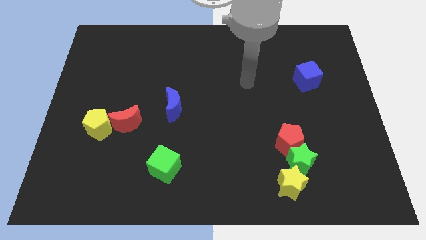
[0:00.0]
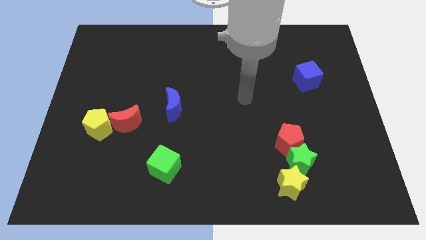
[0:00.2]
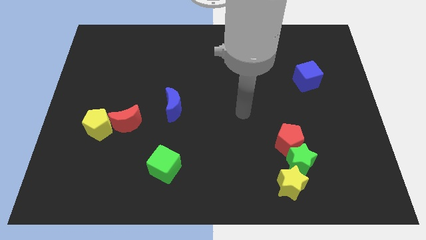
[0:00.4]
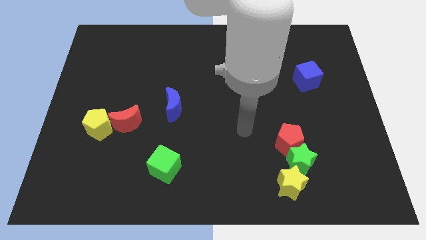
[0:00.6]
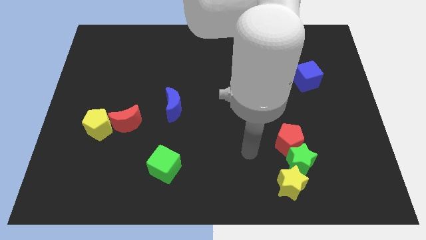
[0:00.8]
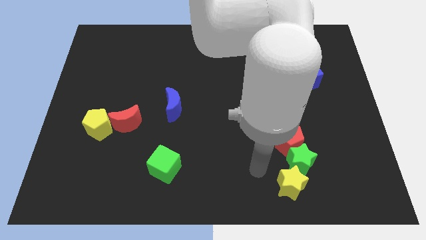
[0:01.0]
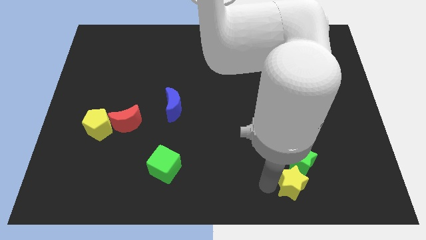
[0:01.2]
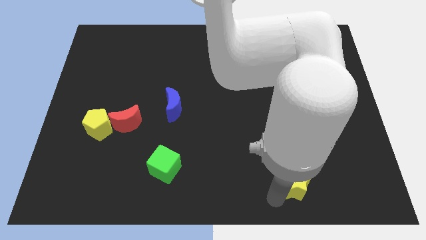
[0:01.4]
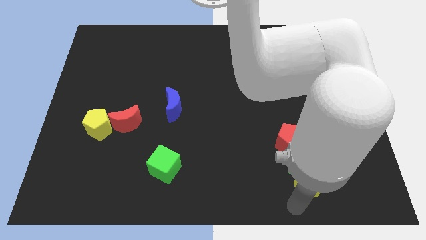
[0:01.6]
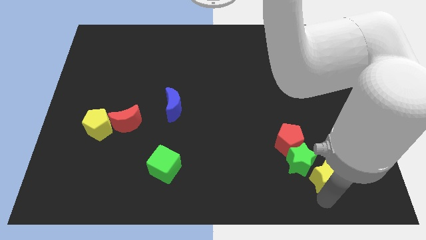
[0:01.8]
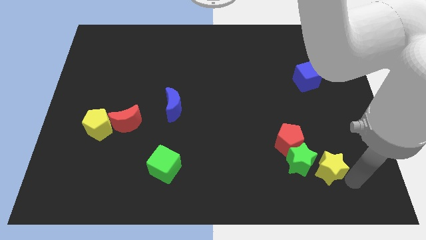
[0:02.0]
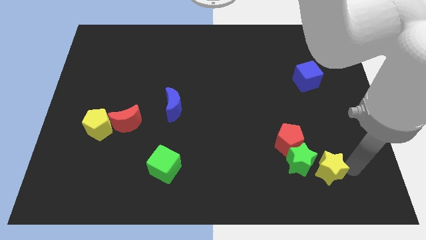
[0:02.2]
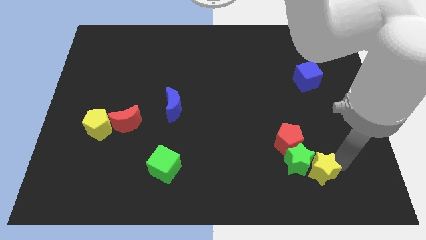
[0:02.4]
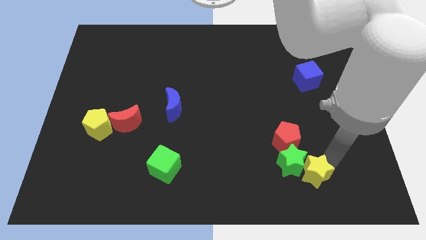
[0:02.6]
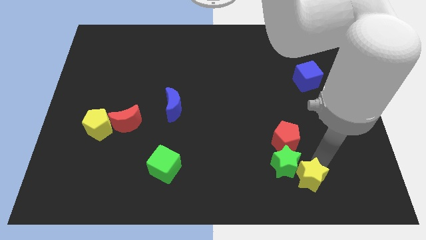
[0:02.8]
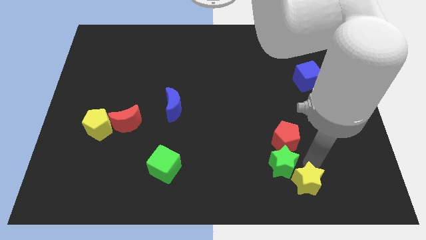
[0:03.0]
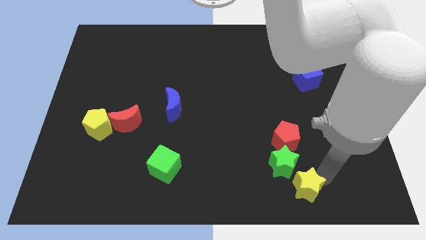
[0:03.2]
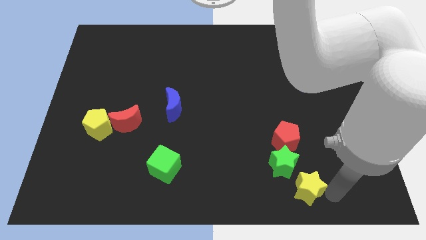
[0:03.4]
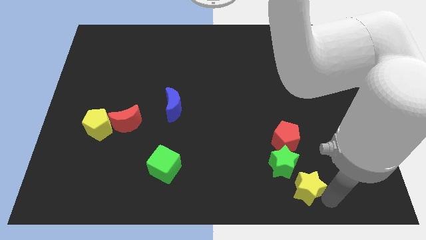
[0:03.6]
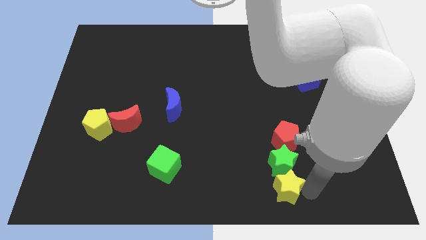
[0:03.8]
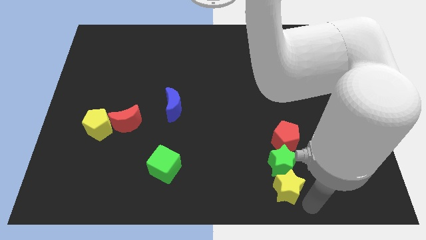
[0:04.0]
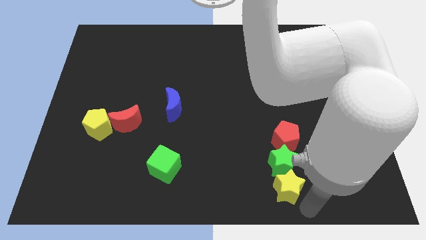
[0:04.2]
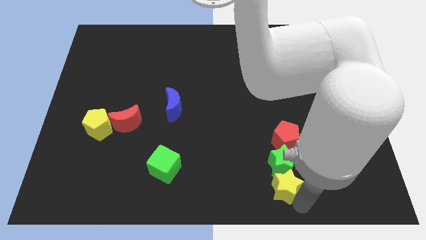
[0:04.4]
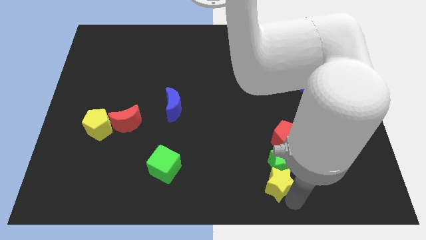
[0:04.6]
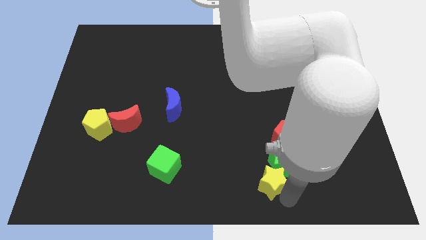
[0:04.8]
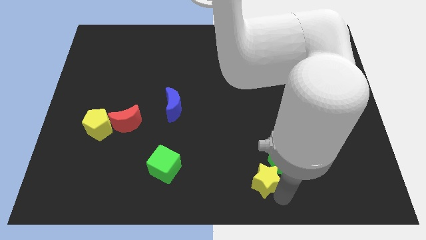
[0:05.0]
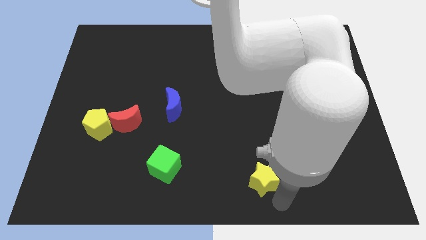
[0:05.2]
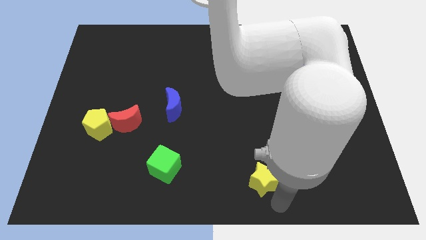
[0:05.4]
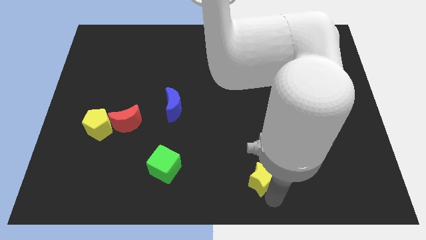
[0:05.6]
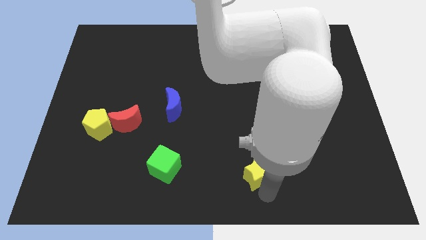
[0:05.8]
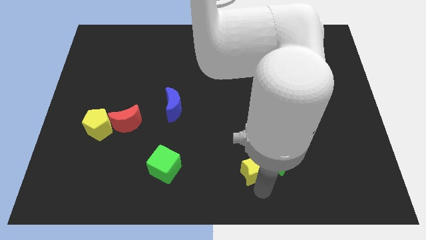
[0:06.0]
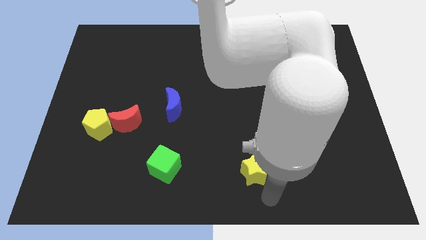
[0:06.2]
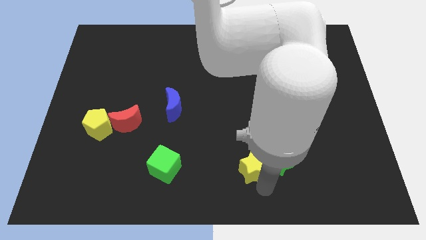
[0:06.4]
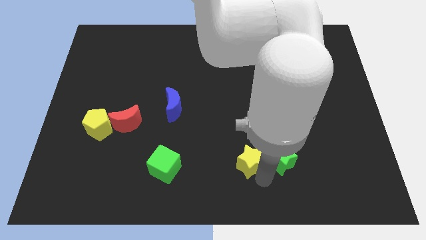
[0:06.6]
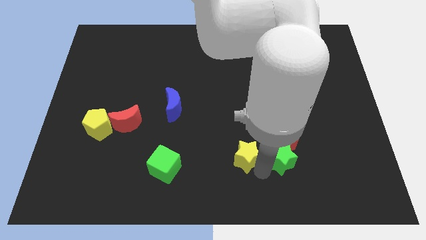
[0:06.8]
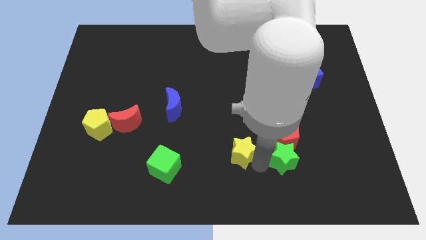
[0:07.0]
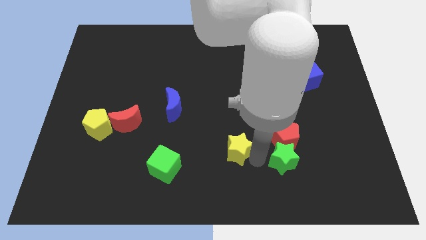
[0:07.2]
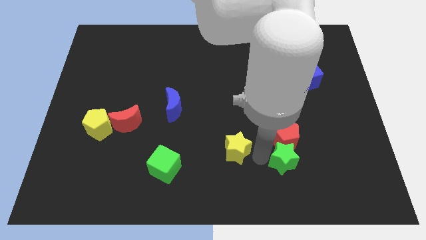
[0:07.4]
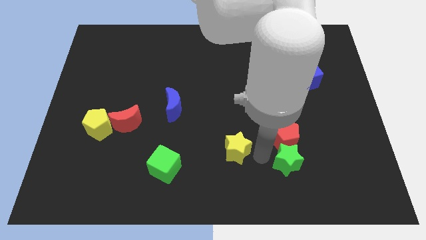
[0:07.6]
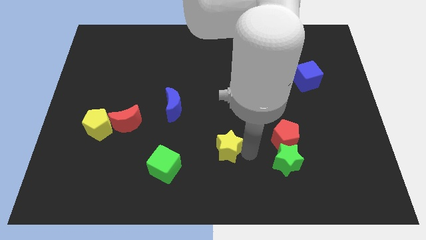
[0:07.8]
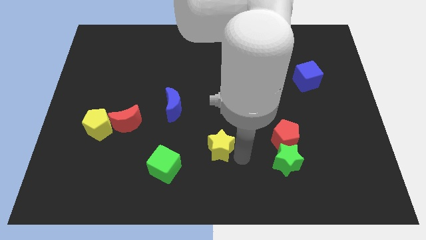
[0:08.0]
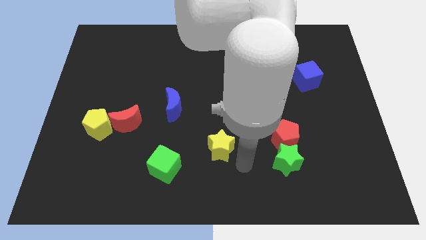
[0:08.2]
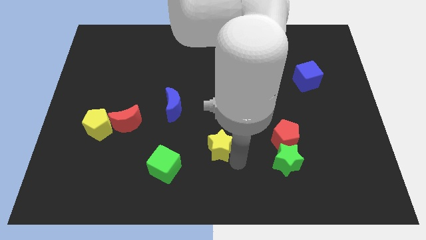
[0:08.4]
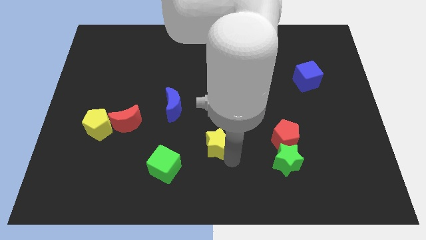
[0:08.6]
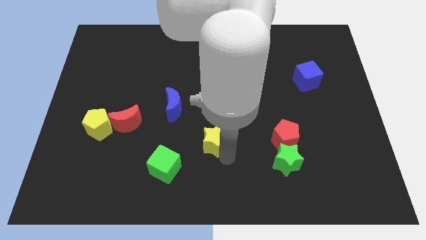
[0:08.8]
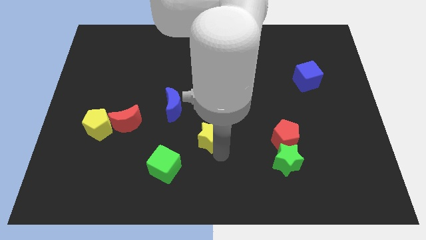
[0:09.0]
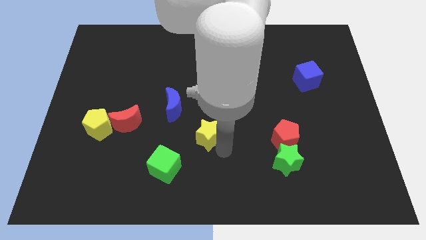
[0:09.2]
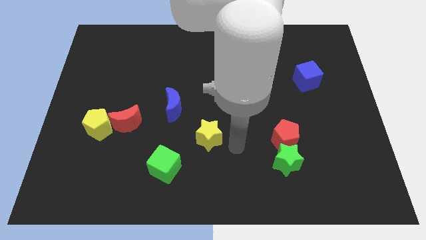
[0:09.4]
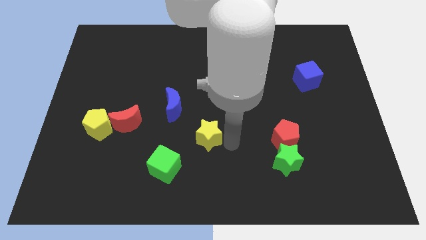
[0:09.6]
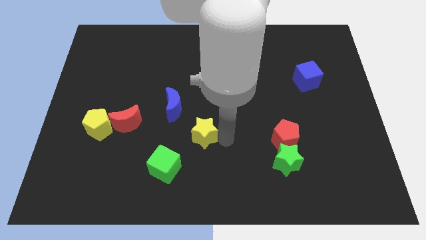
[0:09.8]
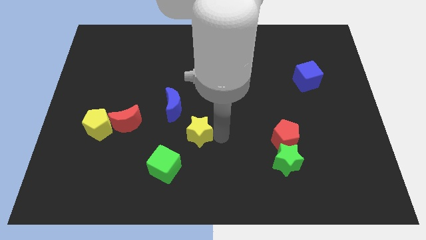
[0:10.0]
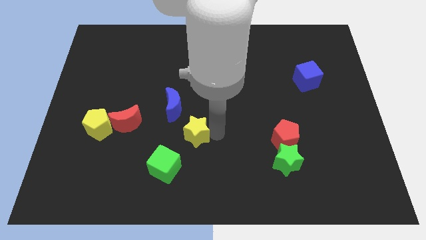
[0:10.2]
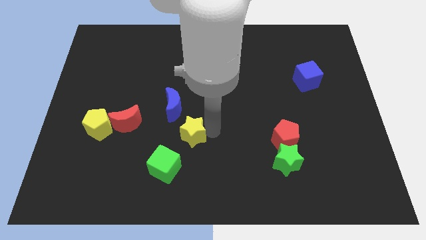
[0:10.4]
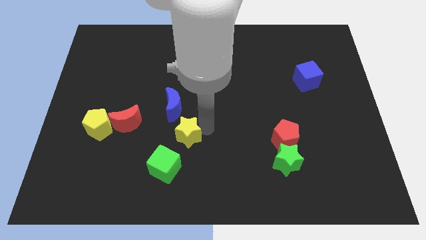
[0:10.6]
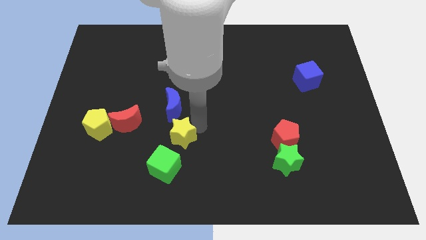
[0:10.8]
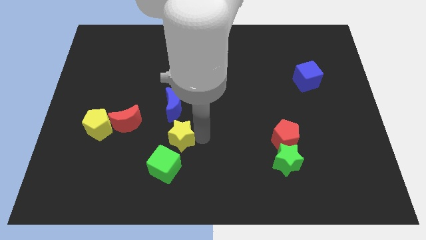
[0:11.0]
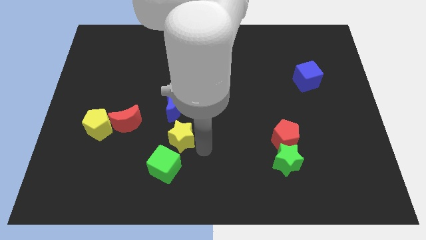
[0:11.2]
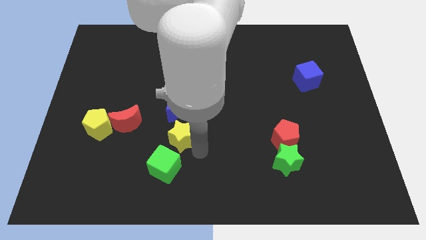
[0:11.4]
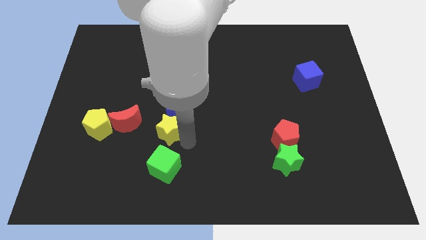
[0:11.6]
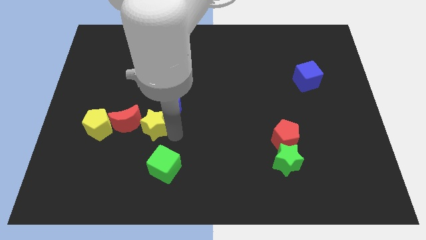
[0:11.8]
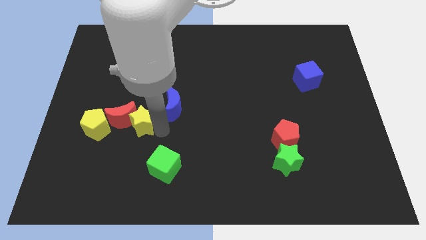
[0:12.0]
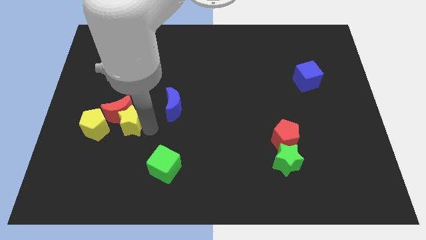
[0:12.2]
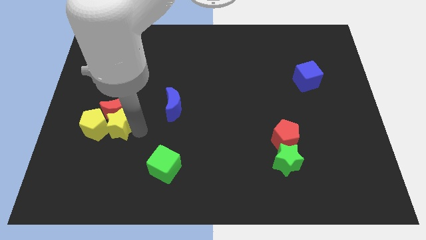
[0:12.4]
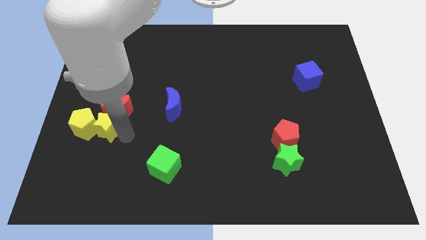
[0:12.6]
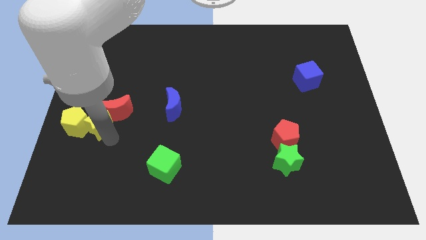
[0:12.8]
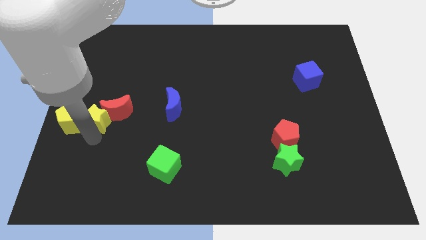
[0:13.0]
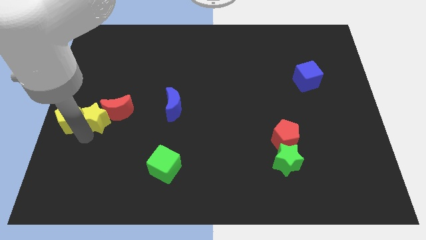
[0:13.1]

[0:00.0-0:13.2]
push the yellow star to the center left
